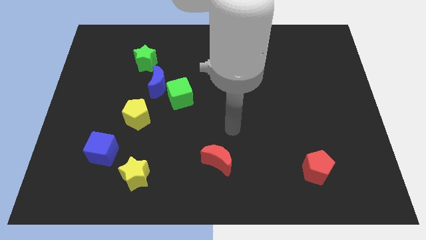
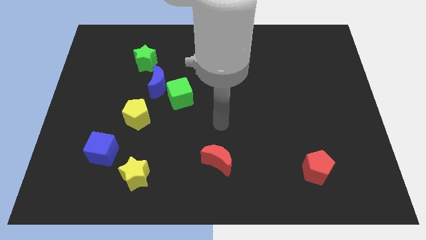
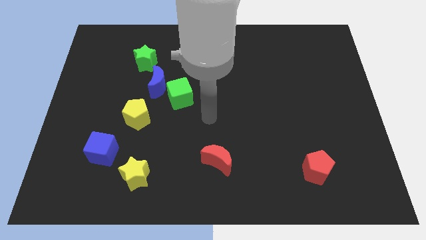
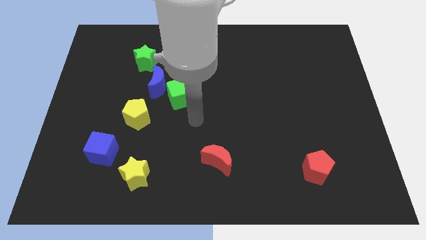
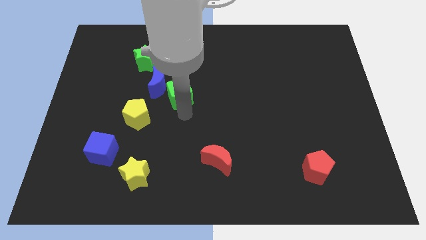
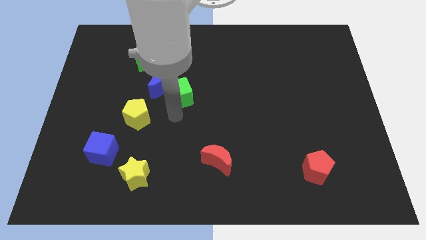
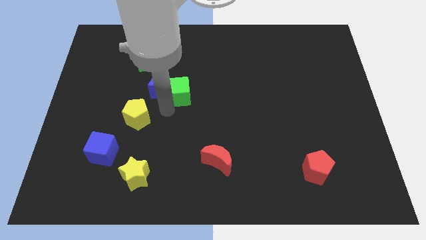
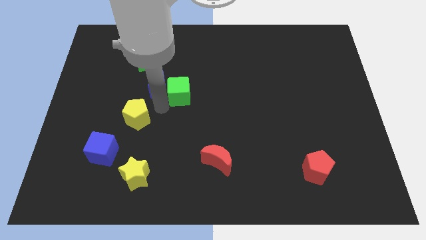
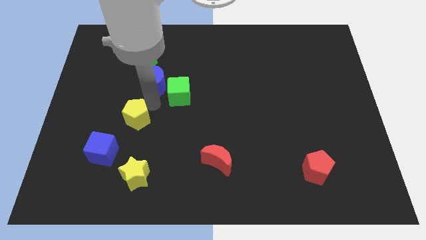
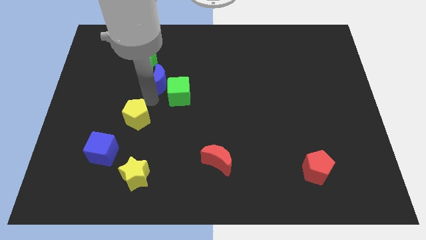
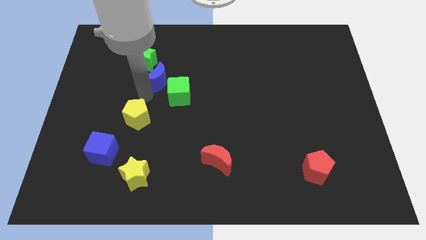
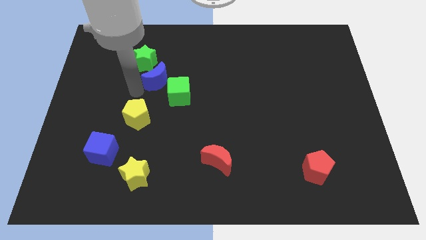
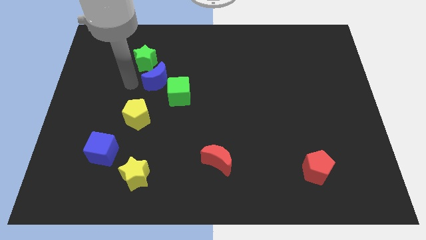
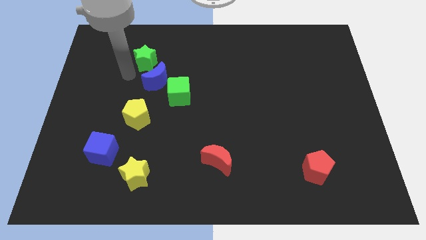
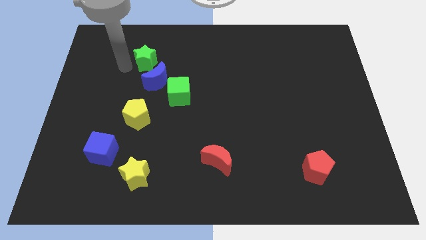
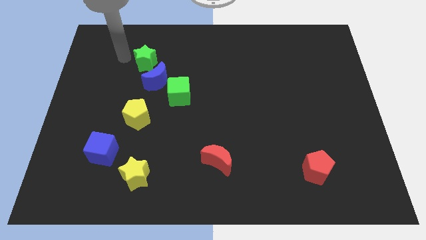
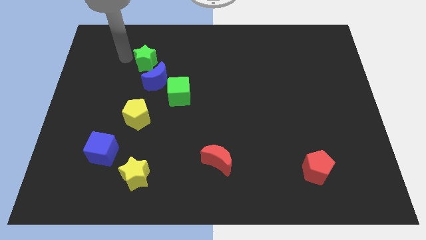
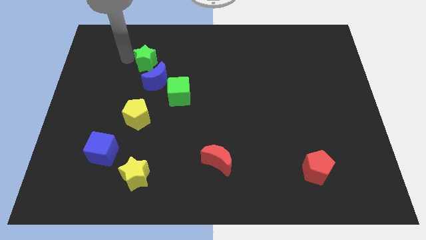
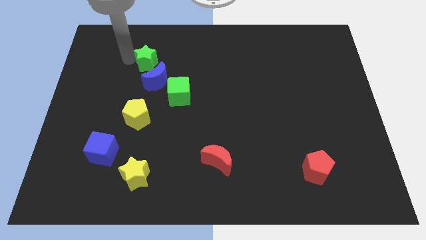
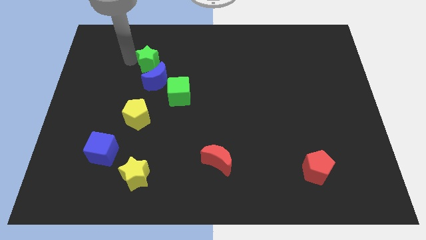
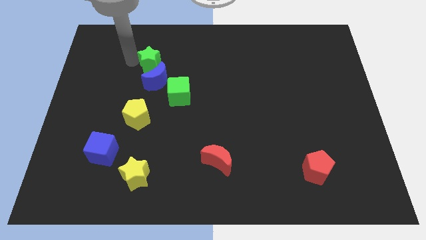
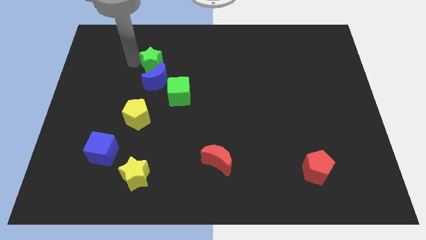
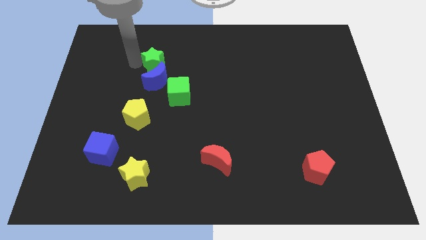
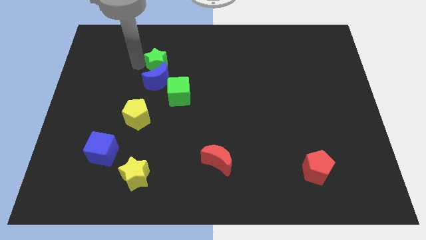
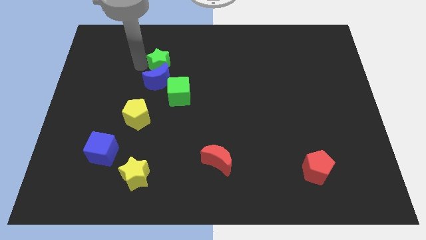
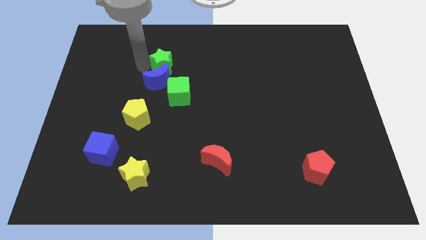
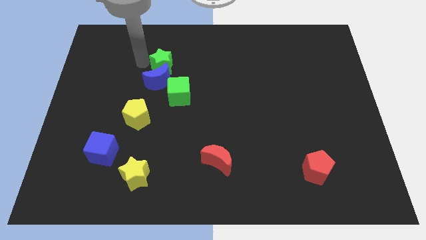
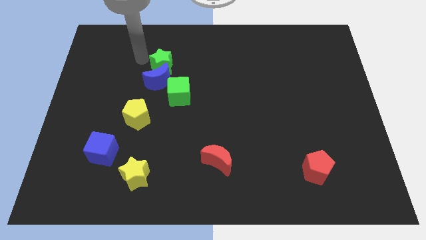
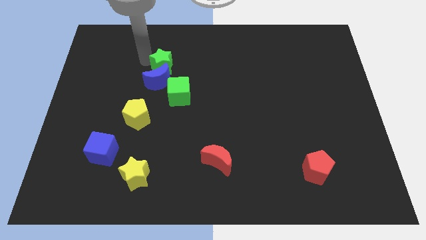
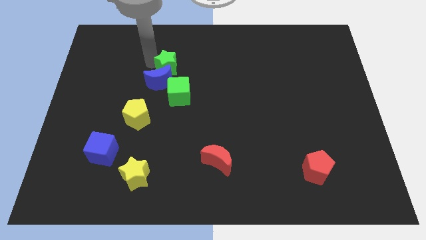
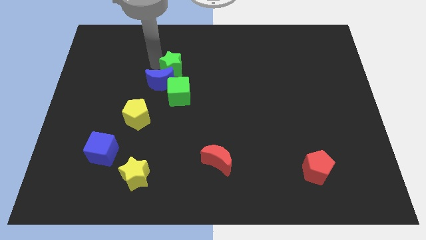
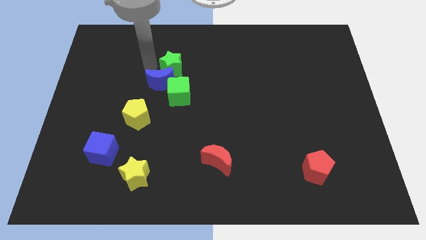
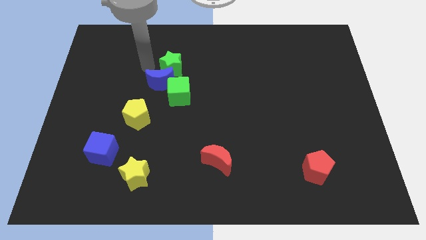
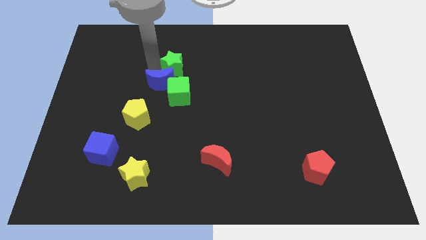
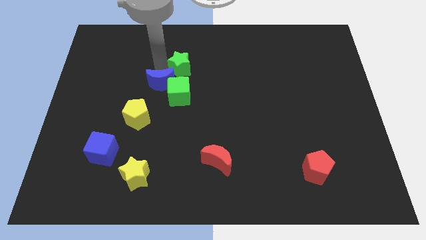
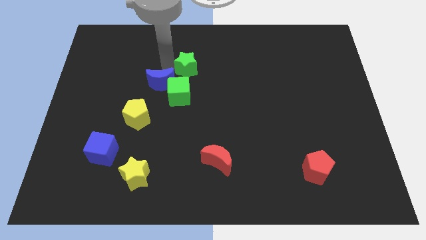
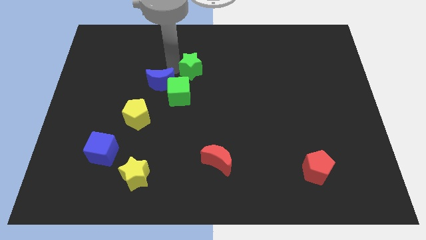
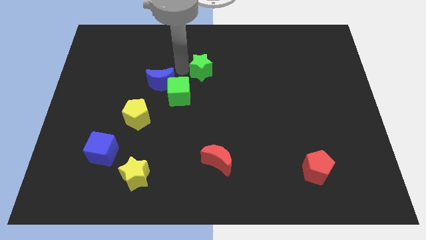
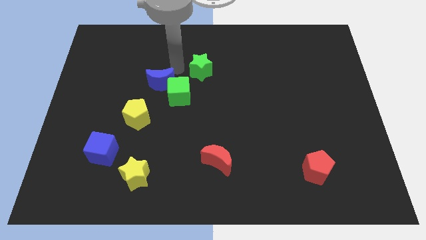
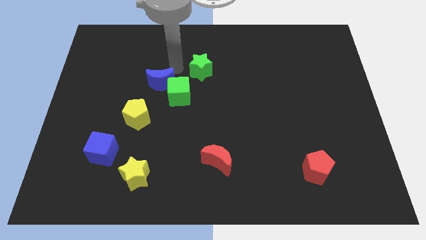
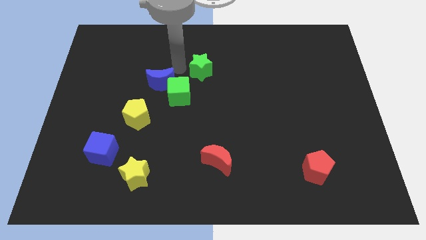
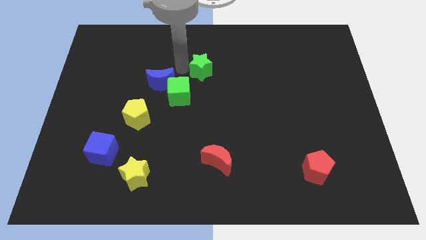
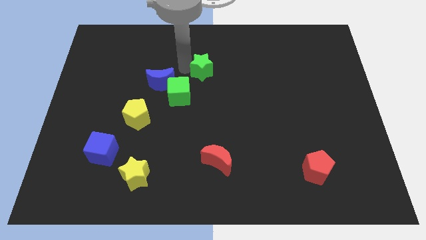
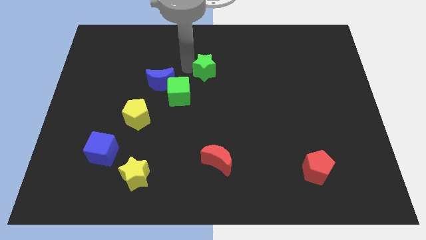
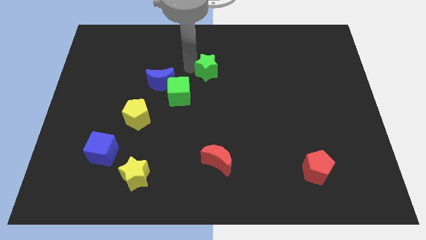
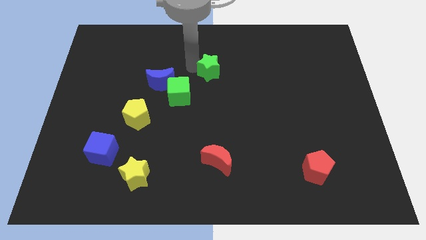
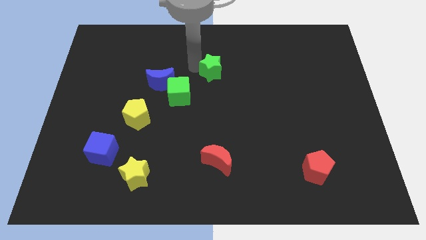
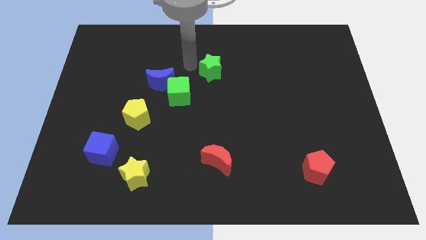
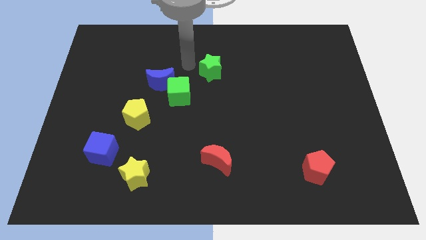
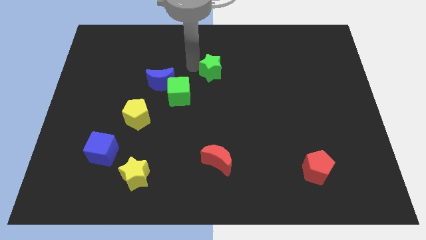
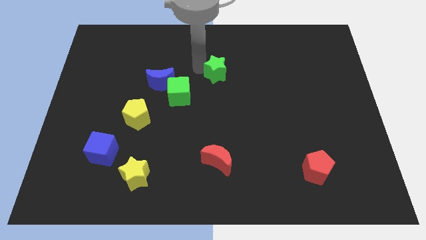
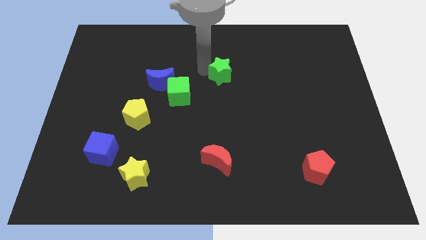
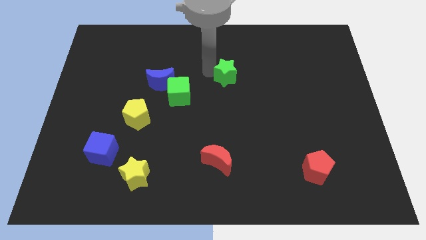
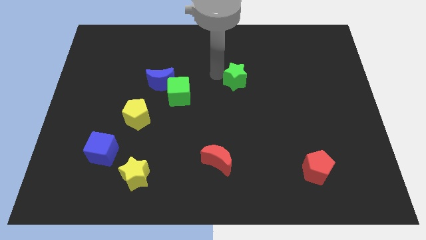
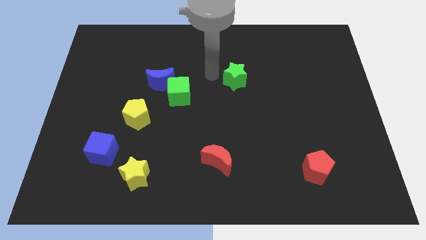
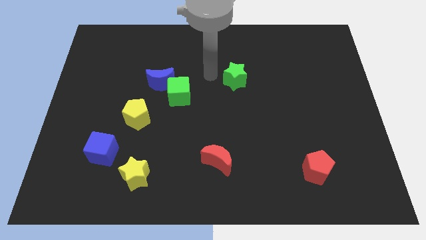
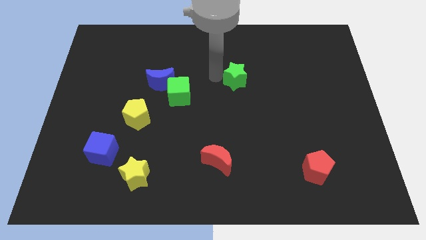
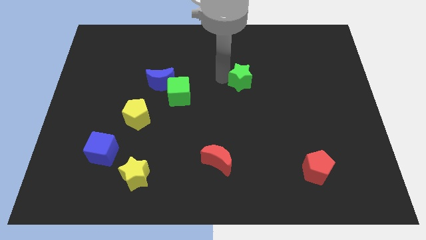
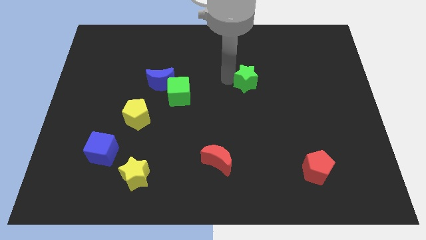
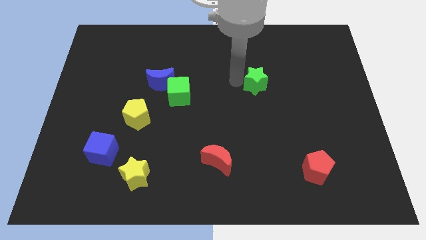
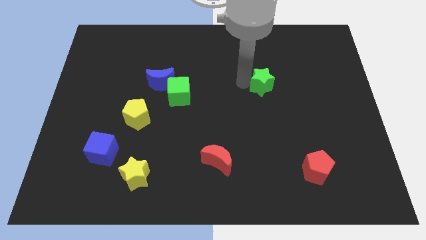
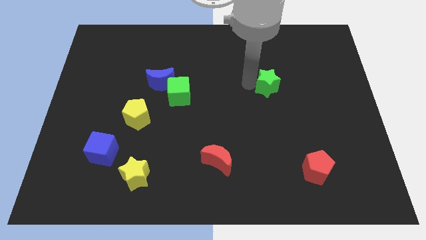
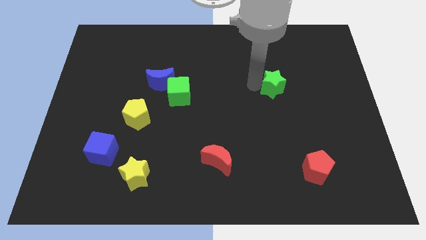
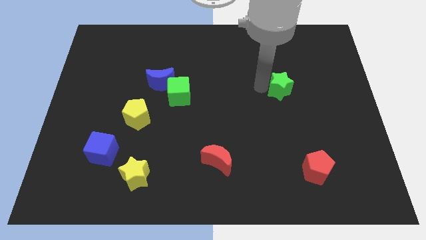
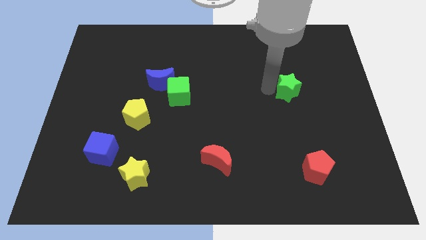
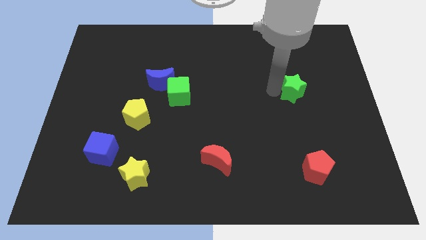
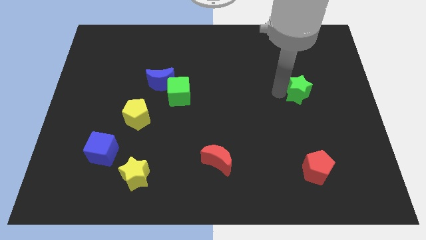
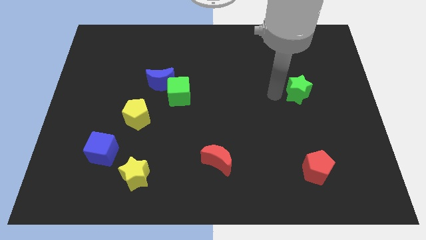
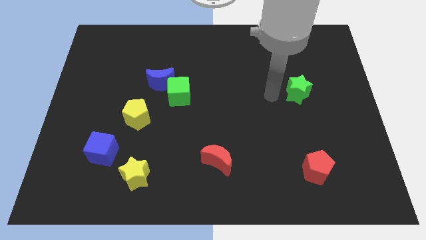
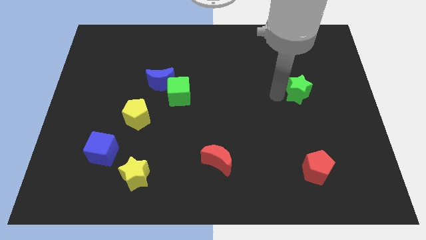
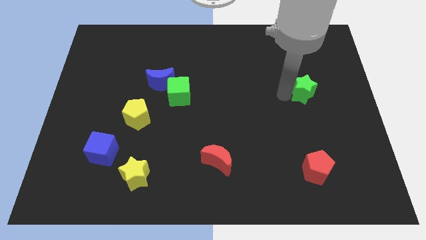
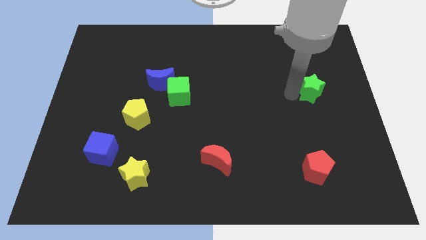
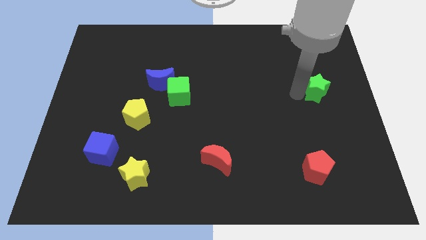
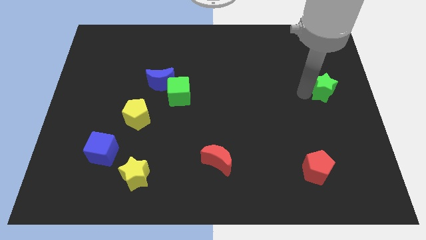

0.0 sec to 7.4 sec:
slide the green star to the center right

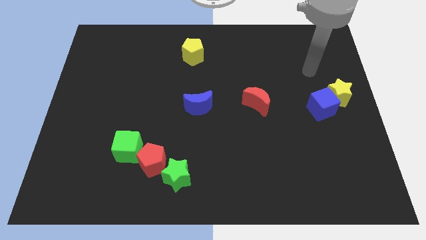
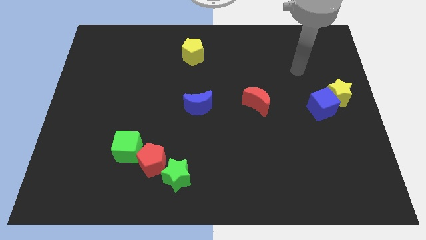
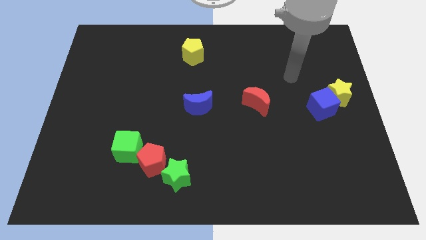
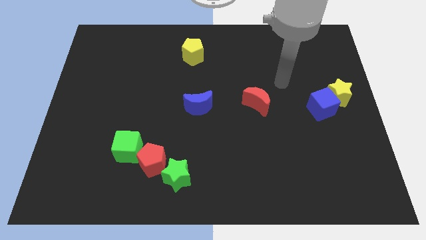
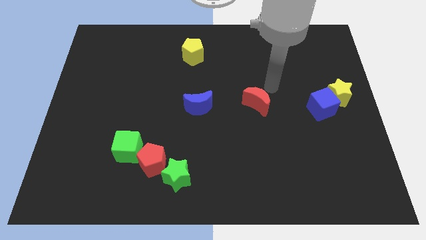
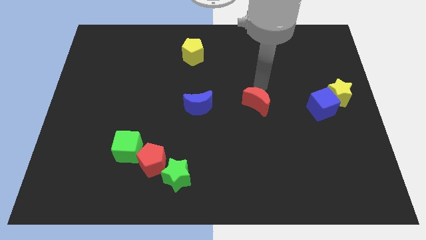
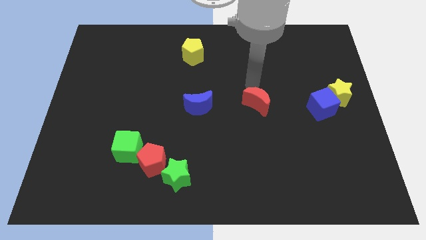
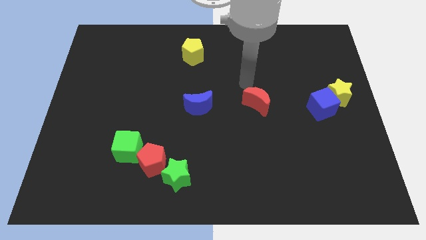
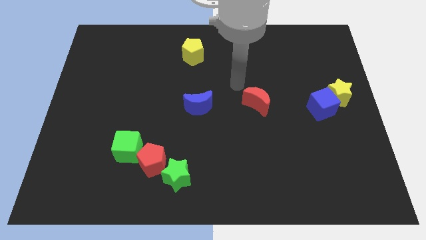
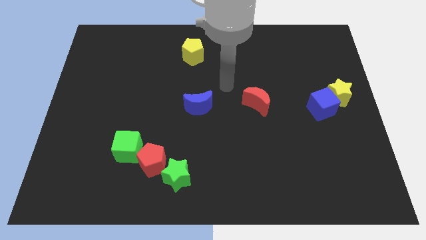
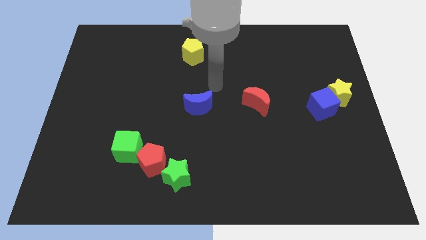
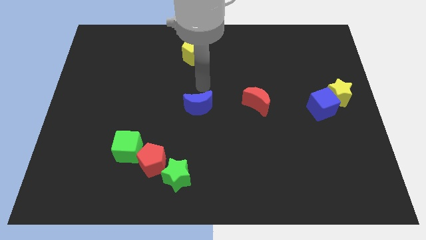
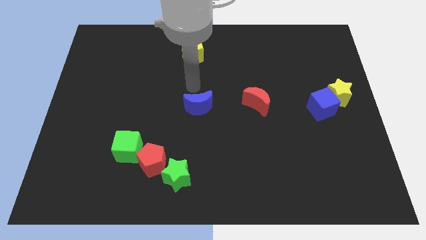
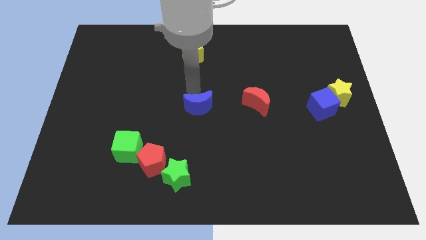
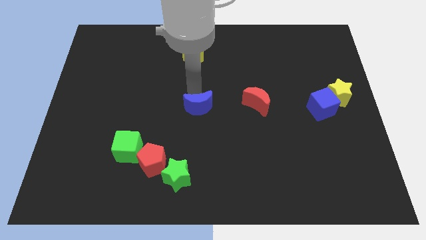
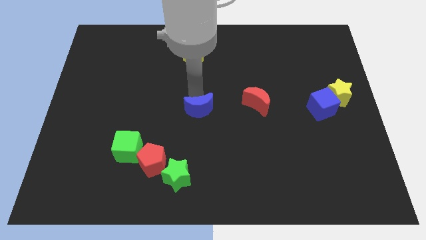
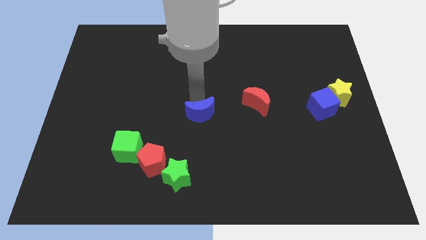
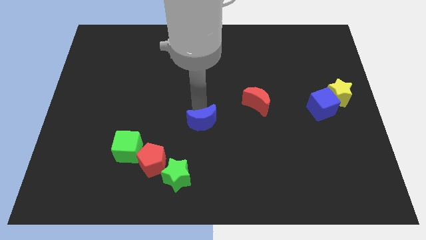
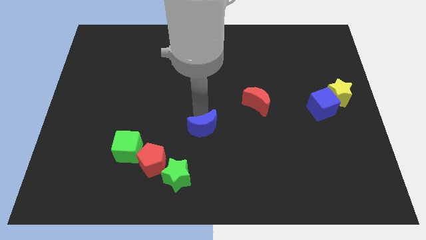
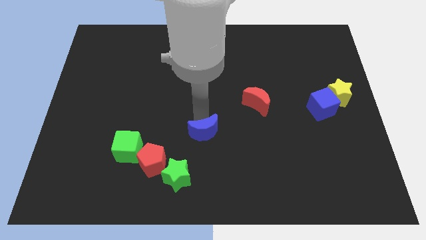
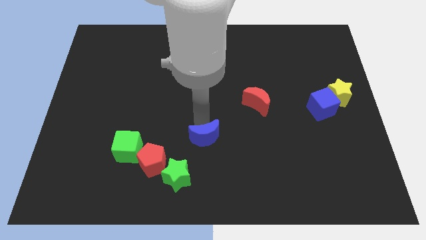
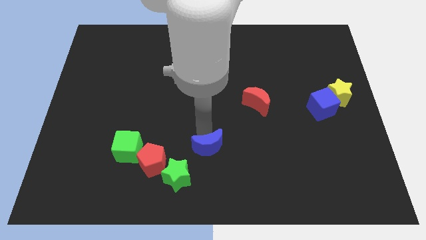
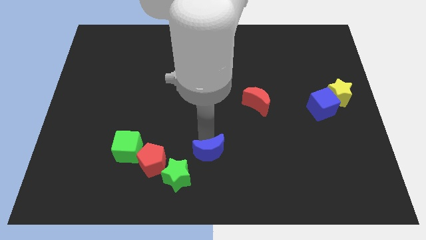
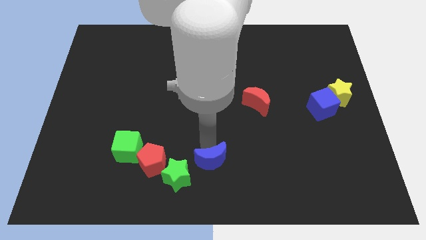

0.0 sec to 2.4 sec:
slide the blue moon to the bottom
